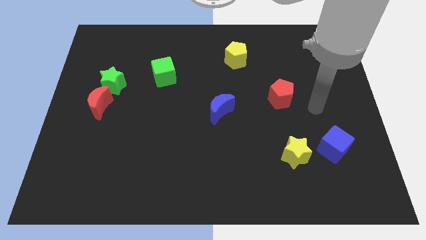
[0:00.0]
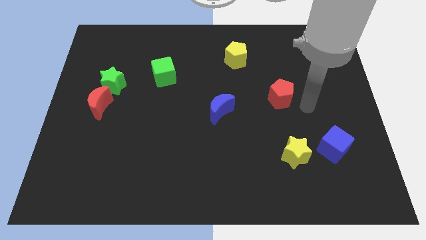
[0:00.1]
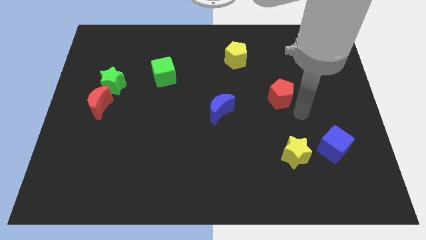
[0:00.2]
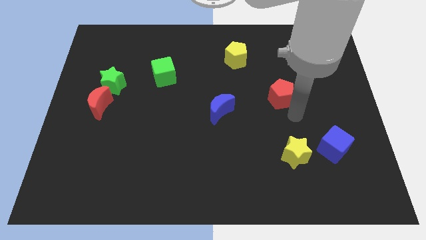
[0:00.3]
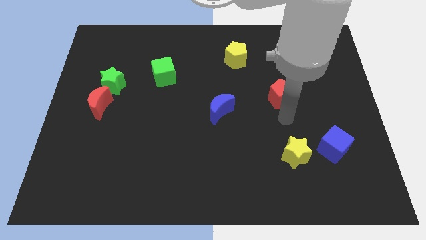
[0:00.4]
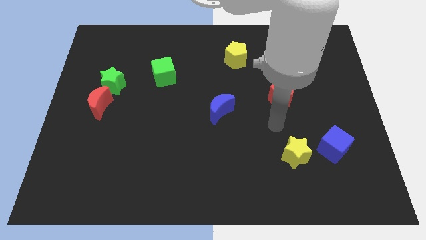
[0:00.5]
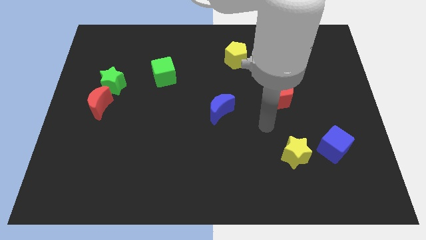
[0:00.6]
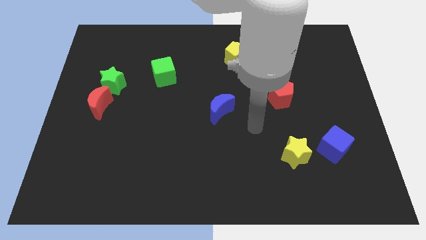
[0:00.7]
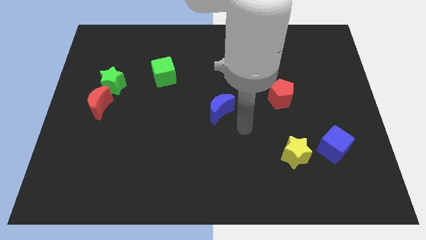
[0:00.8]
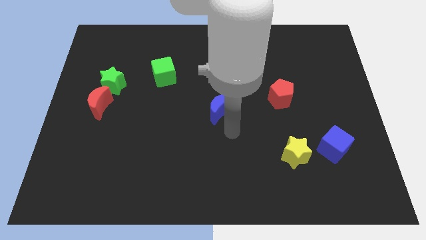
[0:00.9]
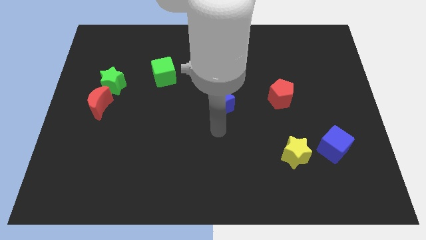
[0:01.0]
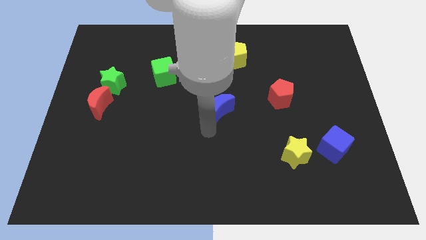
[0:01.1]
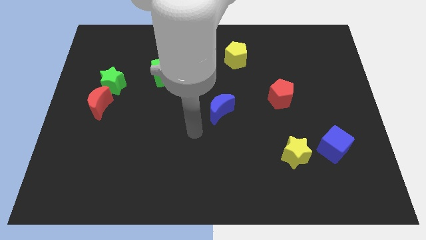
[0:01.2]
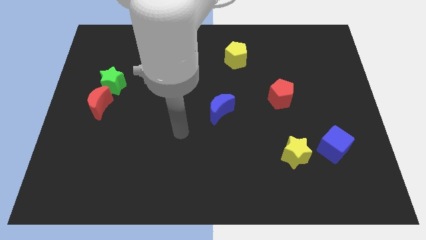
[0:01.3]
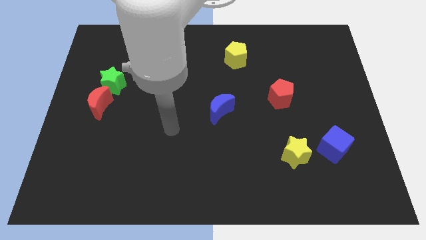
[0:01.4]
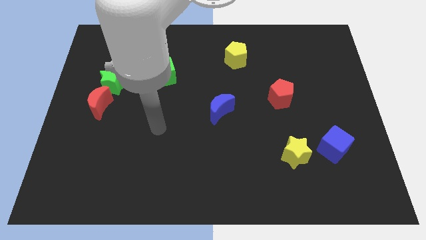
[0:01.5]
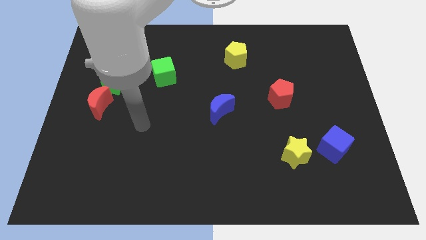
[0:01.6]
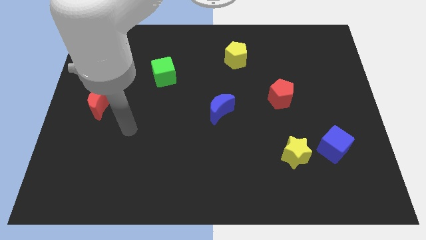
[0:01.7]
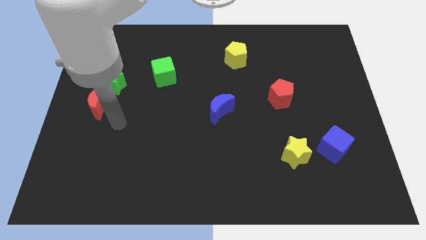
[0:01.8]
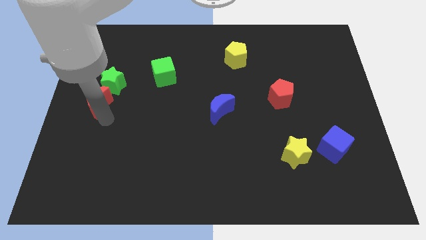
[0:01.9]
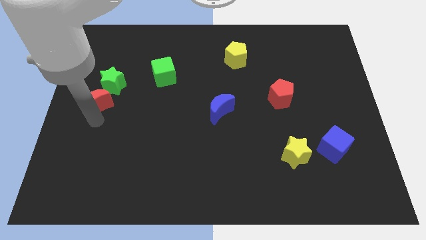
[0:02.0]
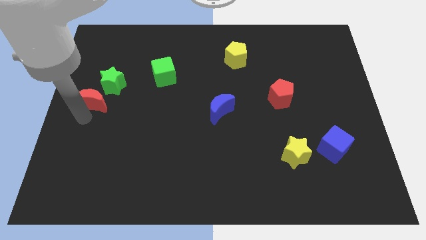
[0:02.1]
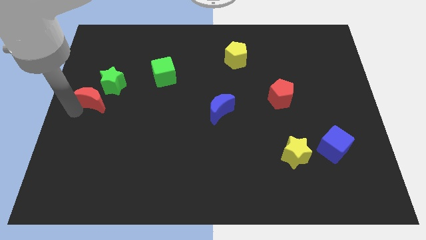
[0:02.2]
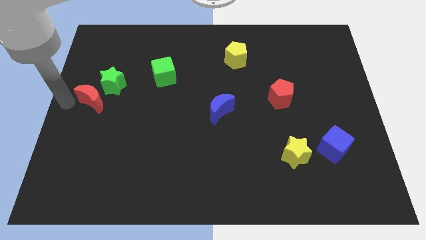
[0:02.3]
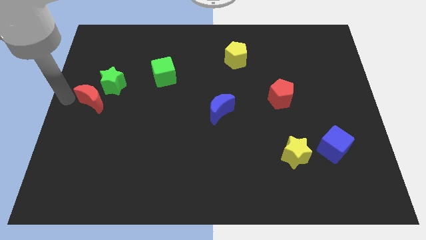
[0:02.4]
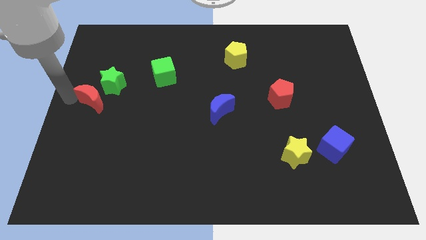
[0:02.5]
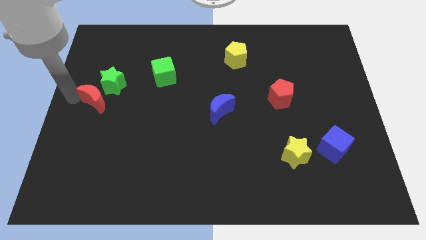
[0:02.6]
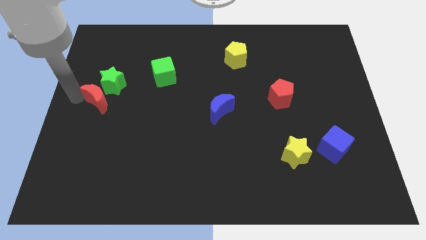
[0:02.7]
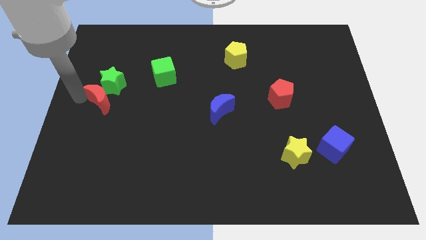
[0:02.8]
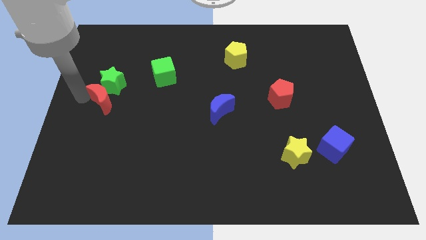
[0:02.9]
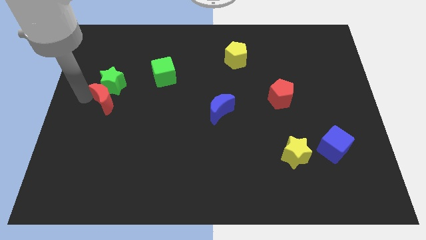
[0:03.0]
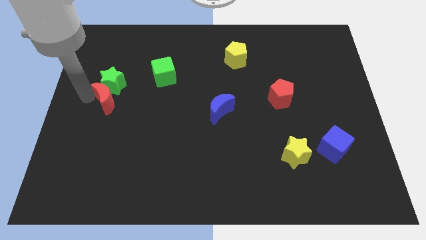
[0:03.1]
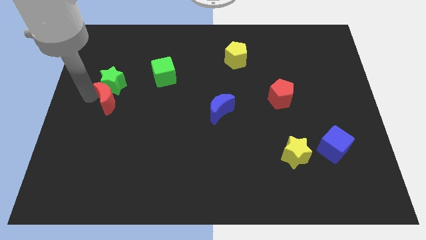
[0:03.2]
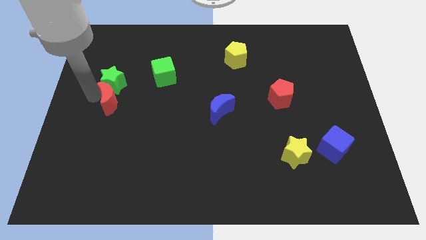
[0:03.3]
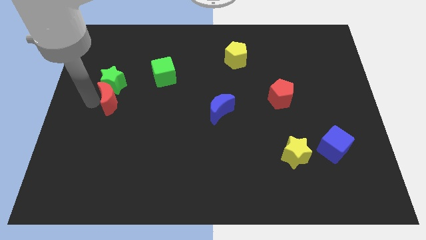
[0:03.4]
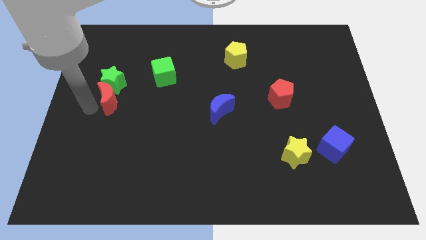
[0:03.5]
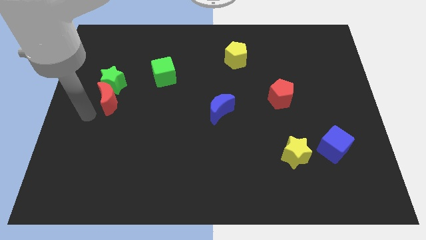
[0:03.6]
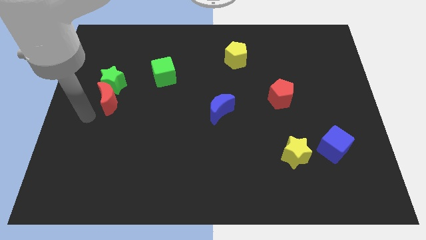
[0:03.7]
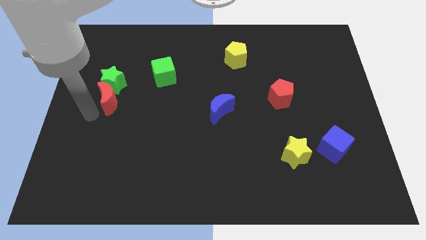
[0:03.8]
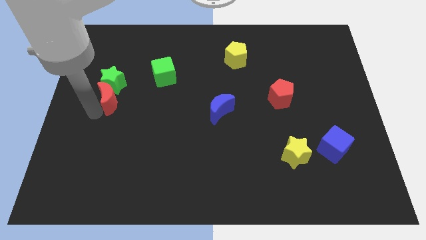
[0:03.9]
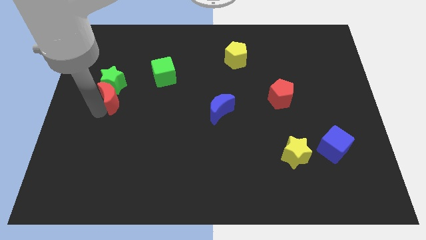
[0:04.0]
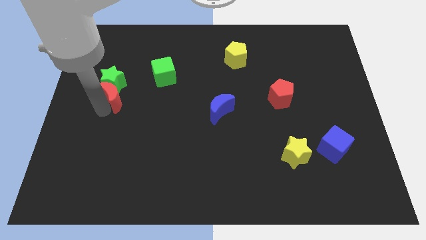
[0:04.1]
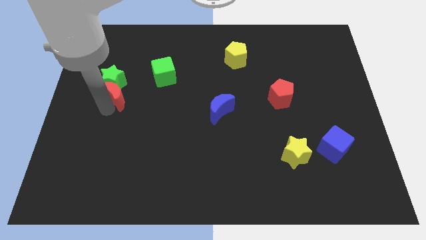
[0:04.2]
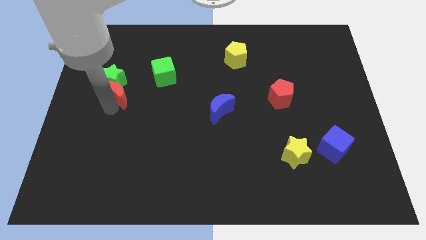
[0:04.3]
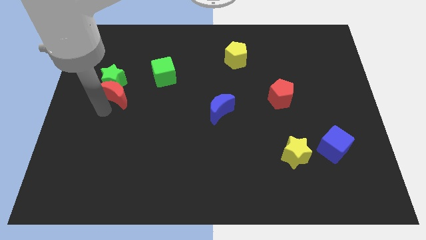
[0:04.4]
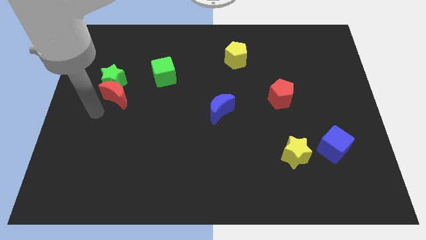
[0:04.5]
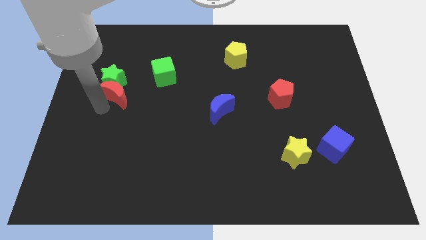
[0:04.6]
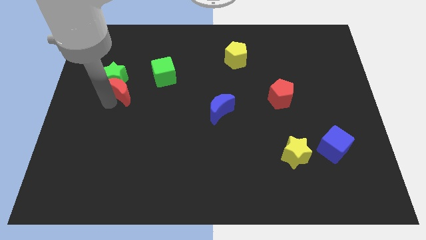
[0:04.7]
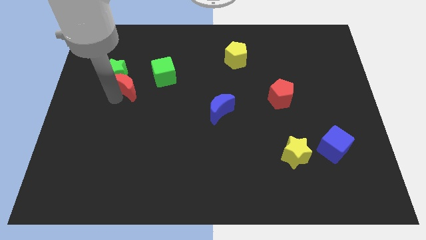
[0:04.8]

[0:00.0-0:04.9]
slightly push the red moon upwards and to the right

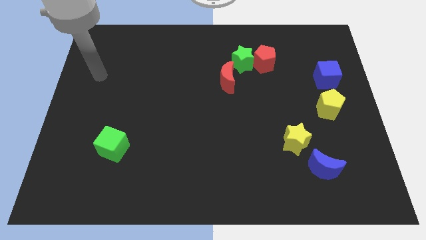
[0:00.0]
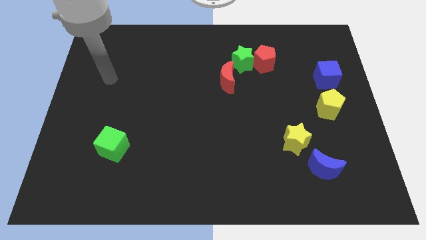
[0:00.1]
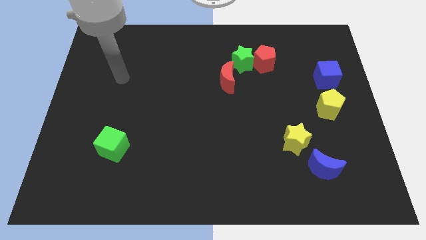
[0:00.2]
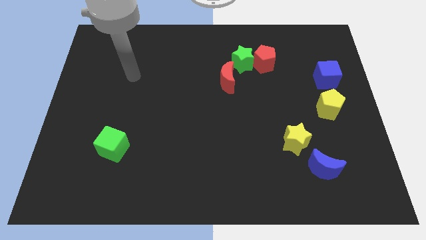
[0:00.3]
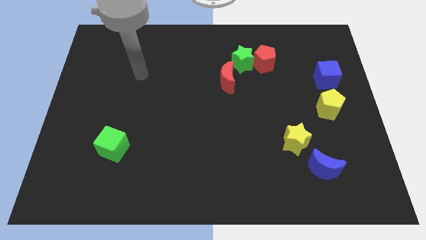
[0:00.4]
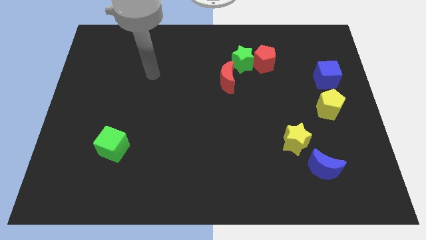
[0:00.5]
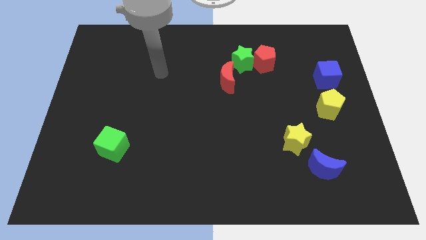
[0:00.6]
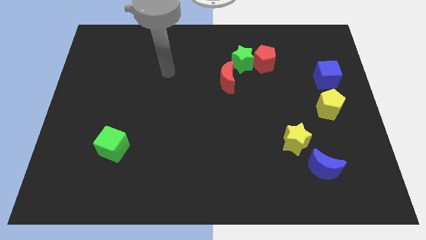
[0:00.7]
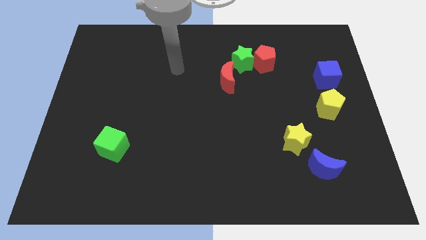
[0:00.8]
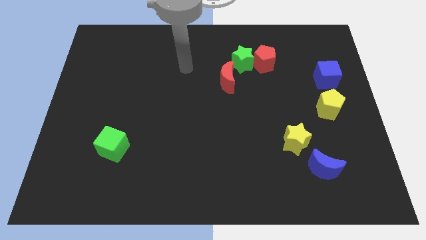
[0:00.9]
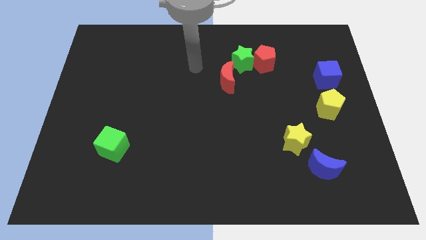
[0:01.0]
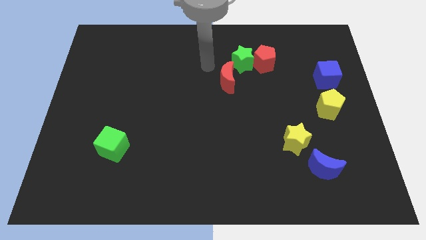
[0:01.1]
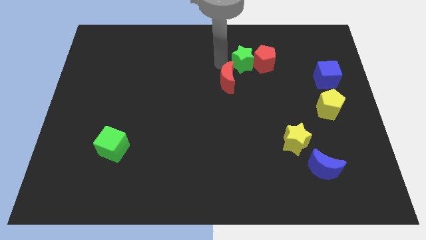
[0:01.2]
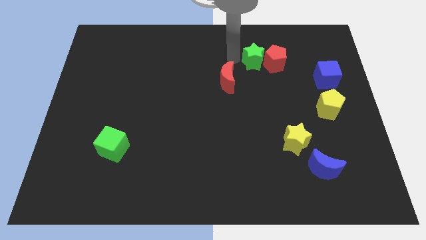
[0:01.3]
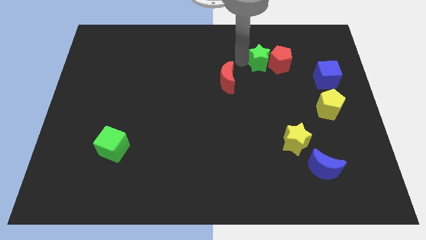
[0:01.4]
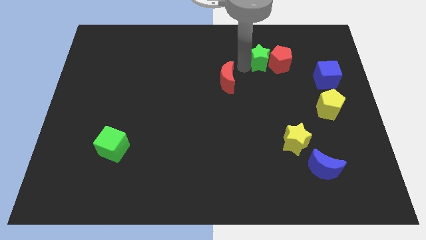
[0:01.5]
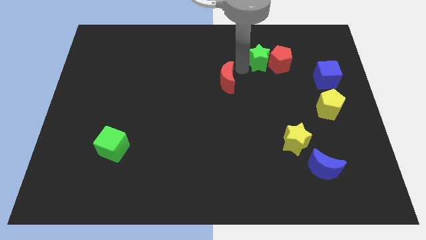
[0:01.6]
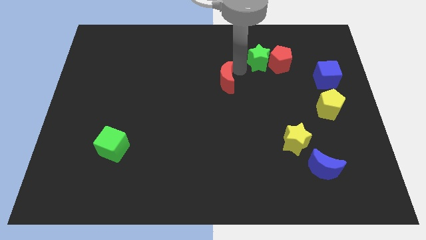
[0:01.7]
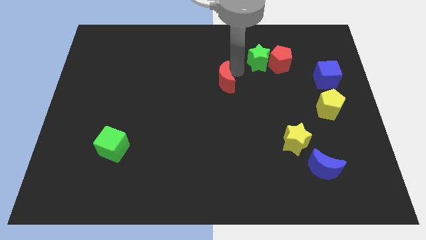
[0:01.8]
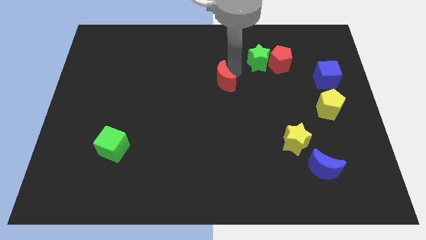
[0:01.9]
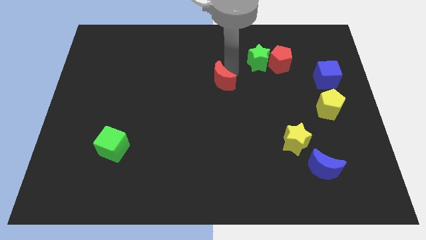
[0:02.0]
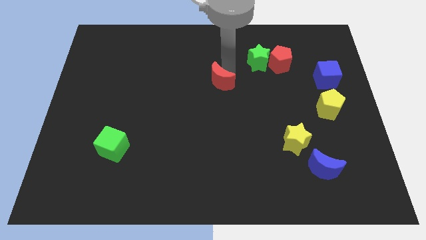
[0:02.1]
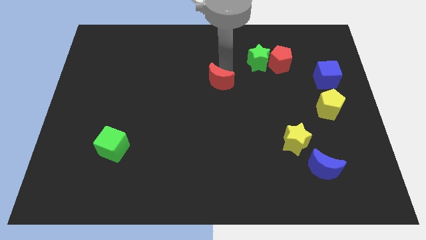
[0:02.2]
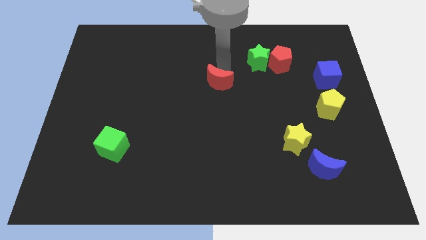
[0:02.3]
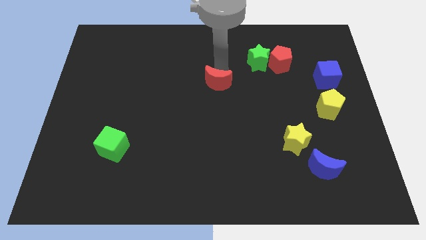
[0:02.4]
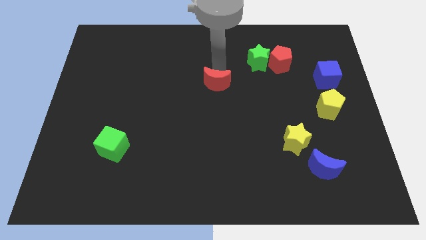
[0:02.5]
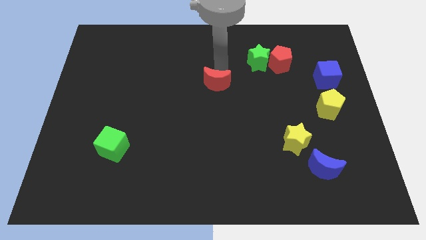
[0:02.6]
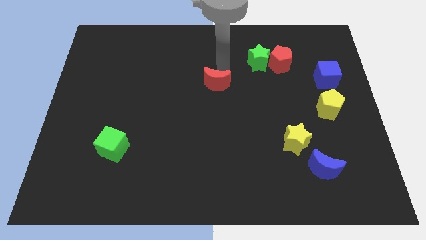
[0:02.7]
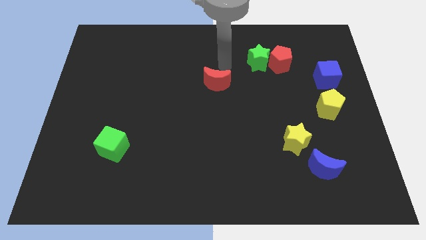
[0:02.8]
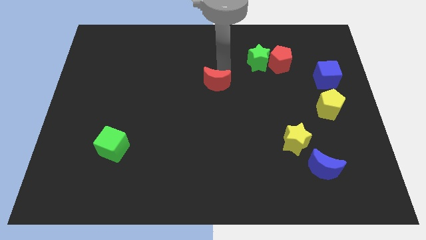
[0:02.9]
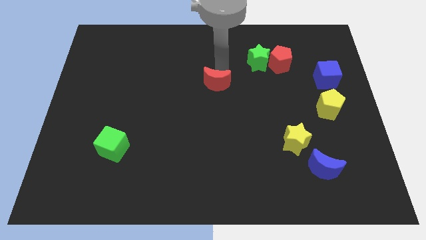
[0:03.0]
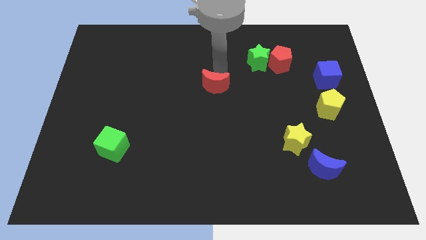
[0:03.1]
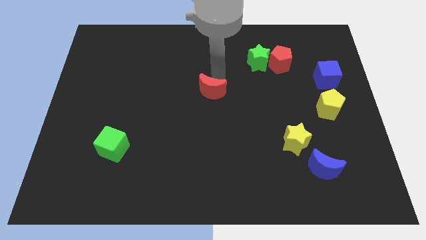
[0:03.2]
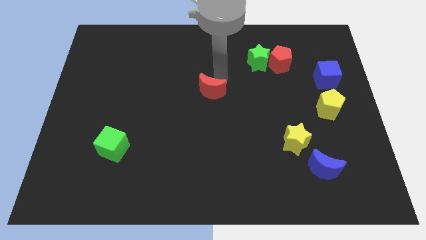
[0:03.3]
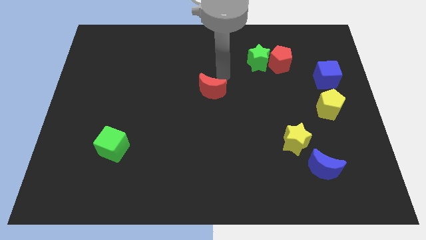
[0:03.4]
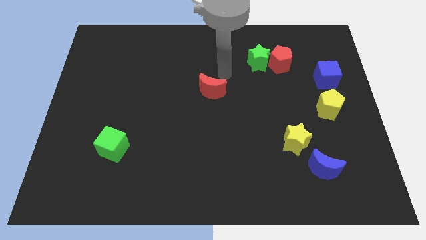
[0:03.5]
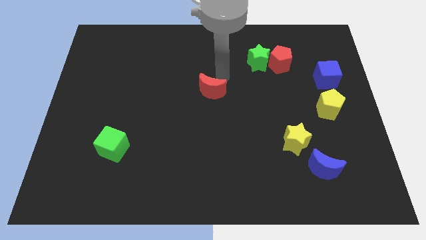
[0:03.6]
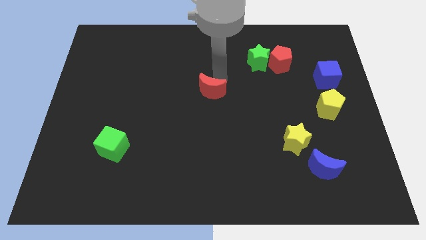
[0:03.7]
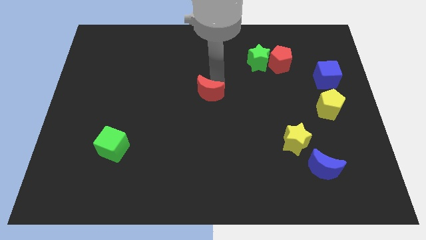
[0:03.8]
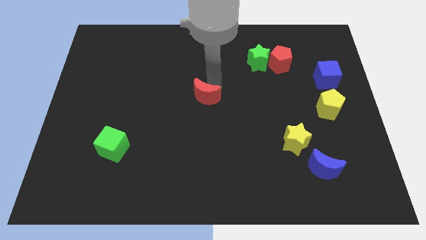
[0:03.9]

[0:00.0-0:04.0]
push the red moon a little diagonally downwards and left
